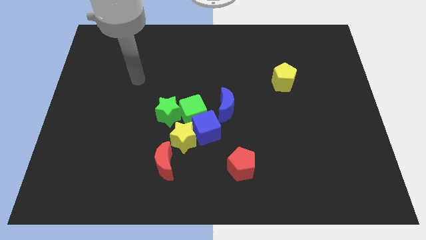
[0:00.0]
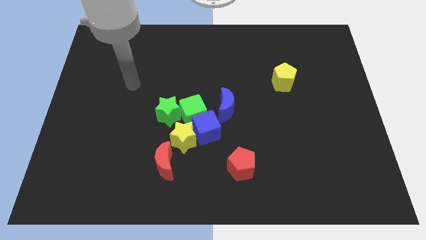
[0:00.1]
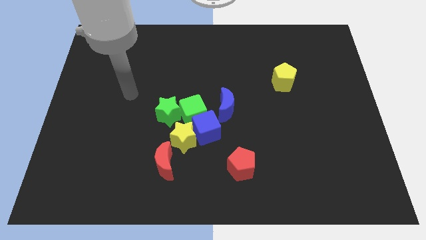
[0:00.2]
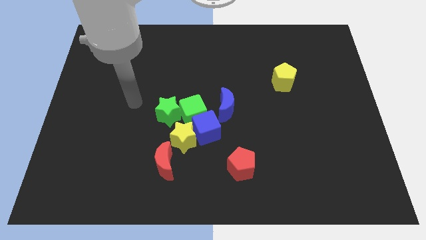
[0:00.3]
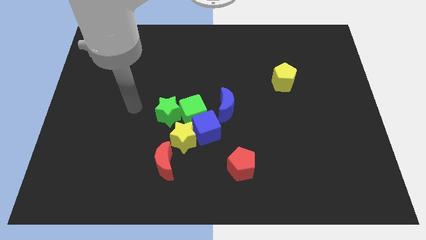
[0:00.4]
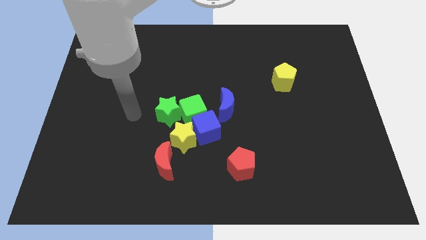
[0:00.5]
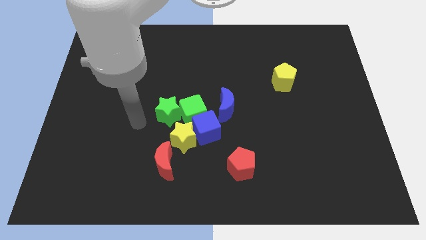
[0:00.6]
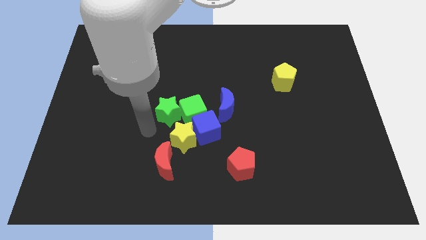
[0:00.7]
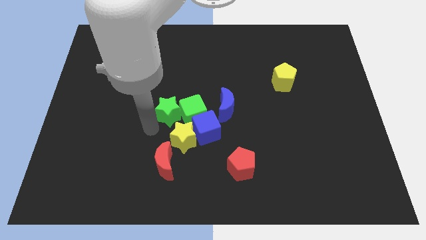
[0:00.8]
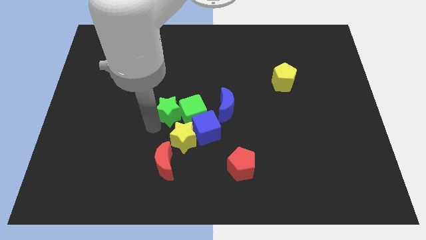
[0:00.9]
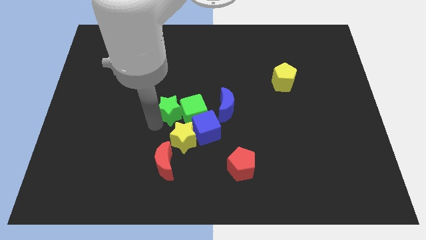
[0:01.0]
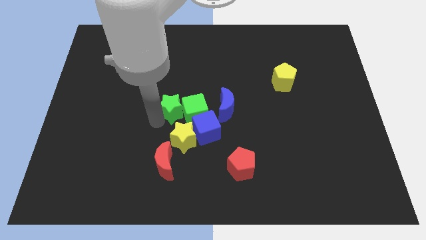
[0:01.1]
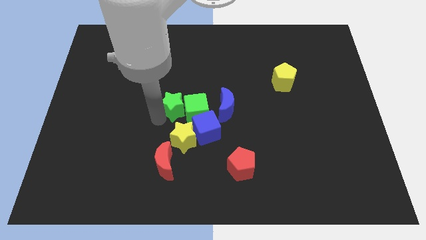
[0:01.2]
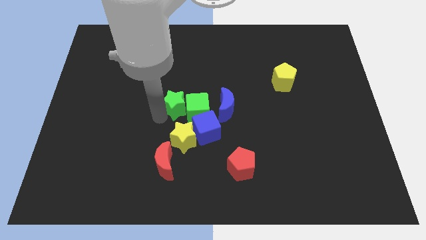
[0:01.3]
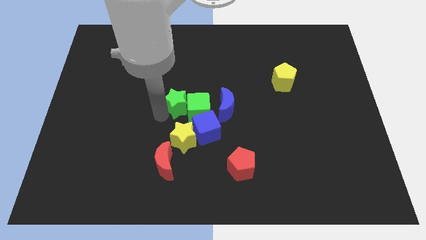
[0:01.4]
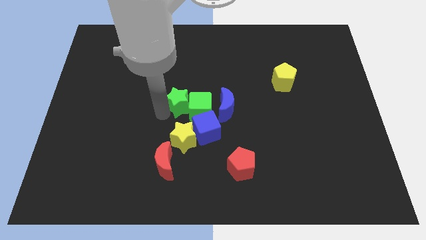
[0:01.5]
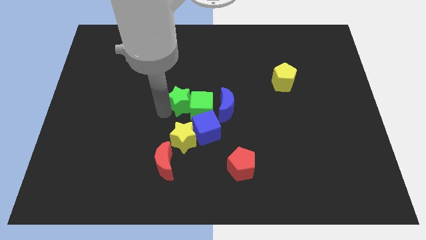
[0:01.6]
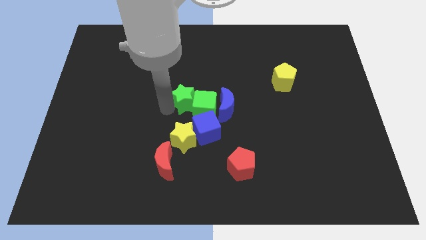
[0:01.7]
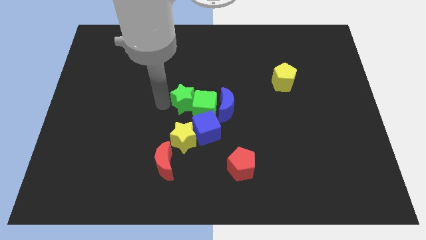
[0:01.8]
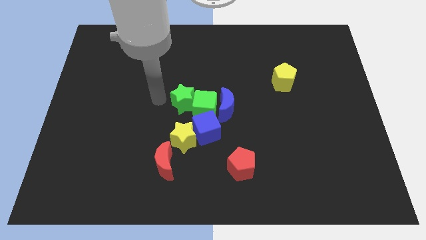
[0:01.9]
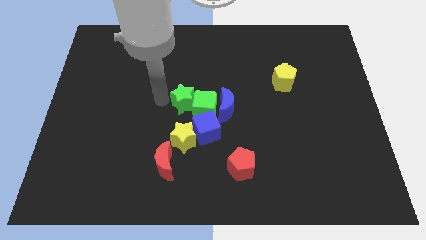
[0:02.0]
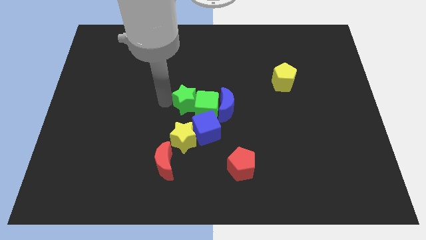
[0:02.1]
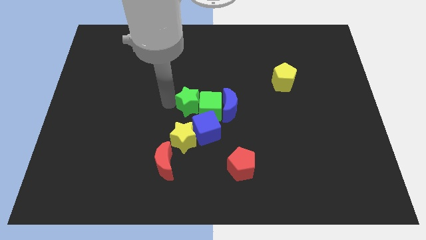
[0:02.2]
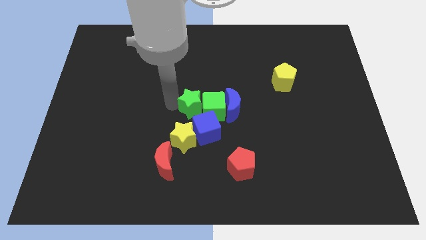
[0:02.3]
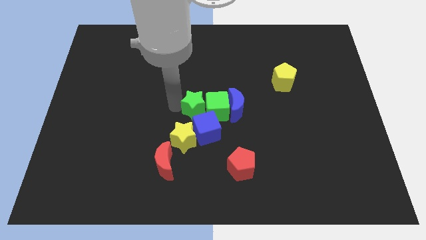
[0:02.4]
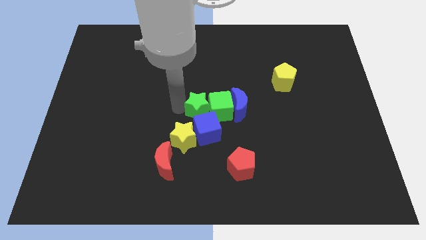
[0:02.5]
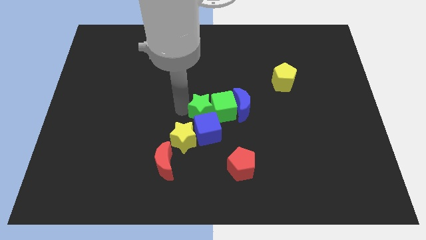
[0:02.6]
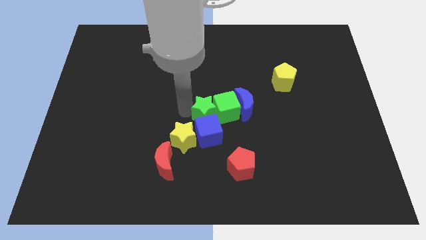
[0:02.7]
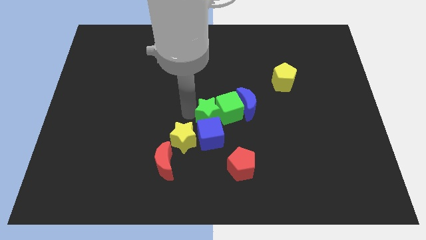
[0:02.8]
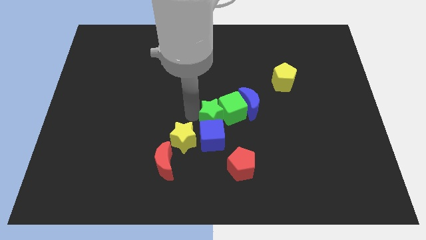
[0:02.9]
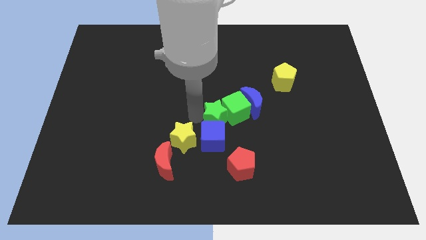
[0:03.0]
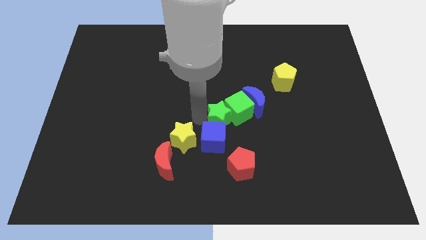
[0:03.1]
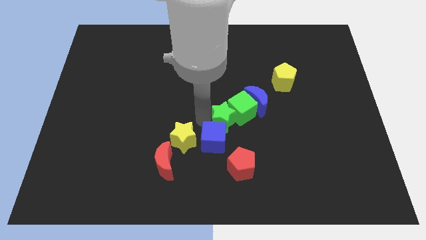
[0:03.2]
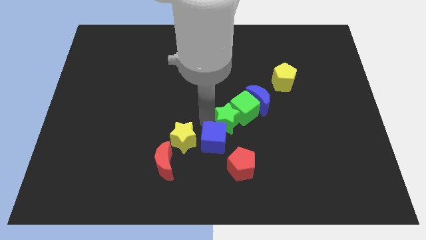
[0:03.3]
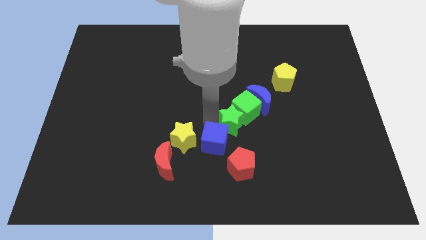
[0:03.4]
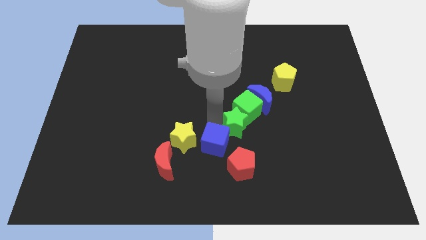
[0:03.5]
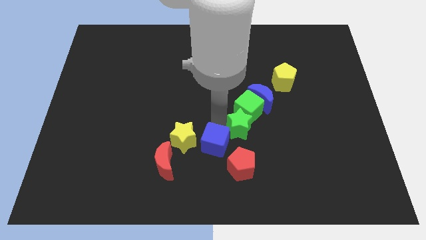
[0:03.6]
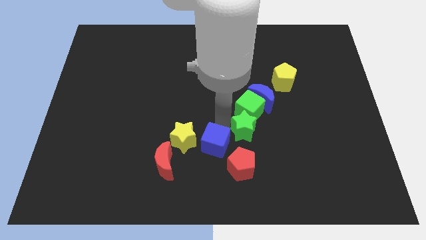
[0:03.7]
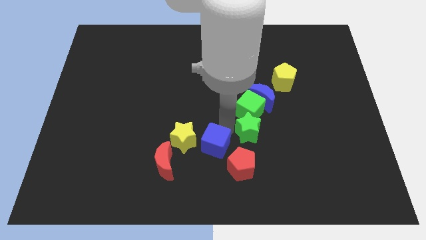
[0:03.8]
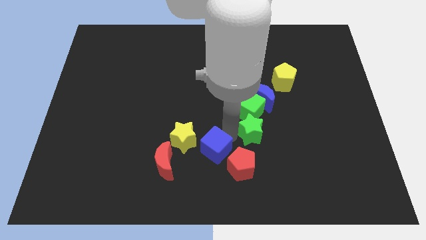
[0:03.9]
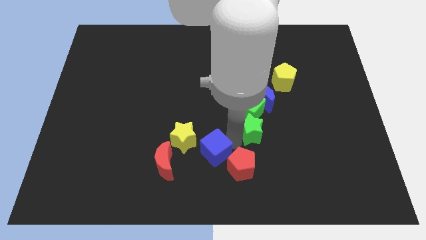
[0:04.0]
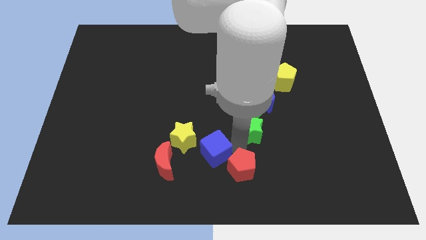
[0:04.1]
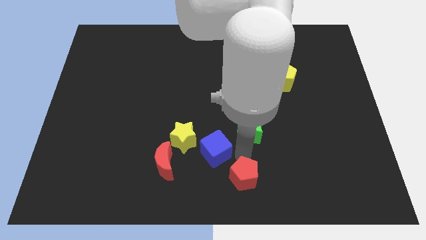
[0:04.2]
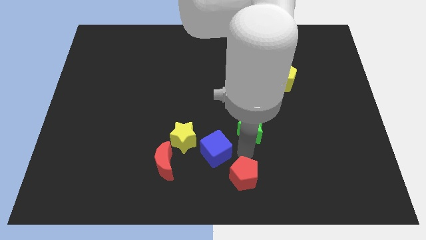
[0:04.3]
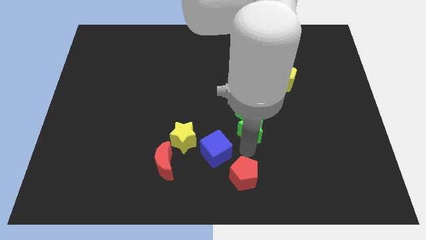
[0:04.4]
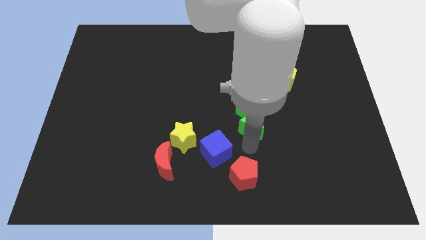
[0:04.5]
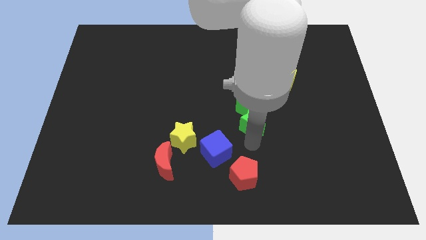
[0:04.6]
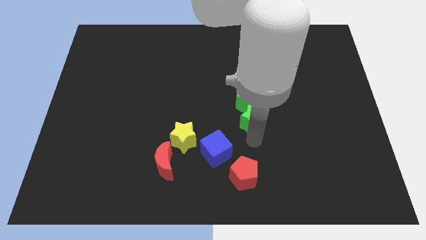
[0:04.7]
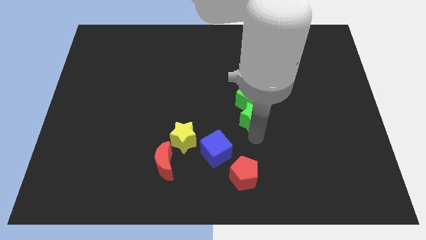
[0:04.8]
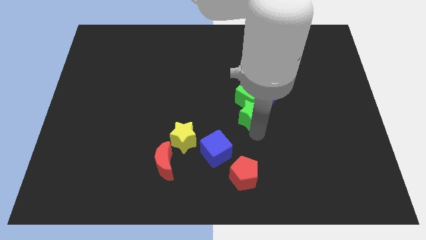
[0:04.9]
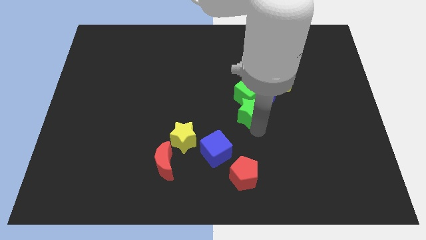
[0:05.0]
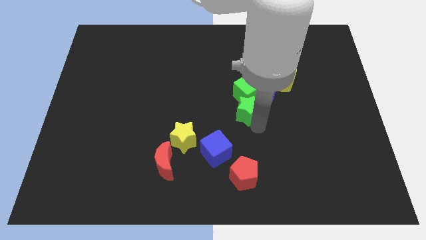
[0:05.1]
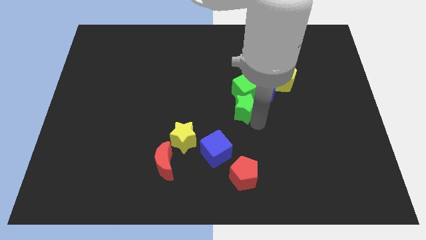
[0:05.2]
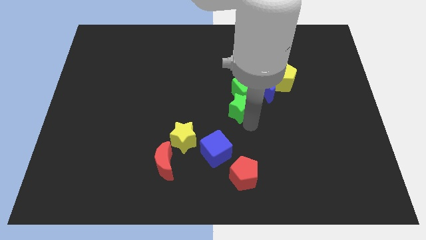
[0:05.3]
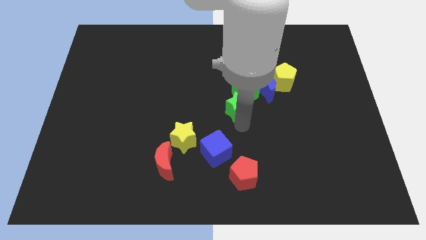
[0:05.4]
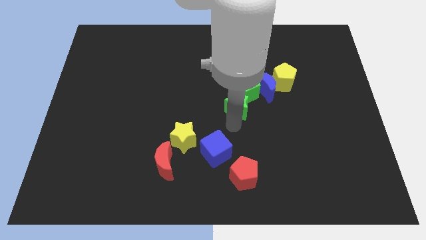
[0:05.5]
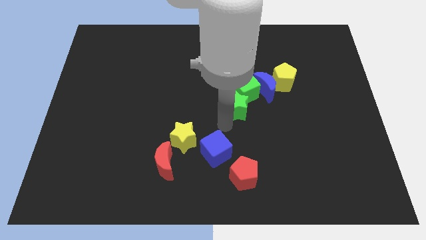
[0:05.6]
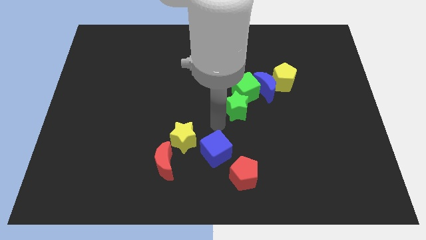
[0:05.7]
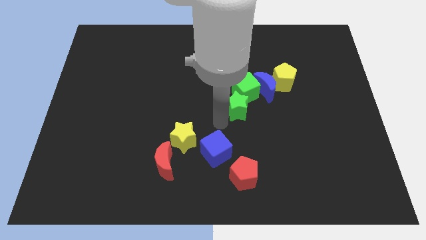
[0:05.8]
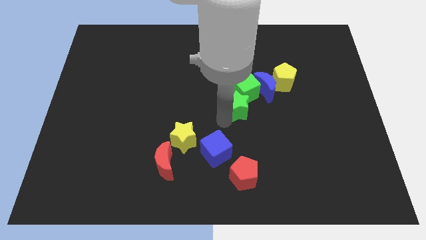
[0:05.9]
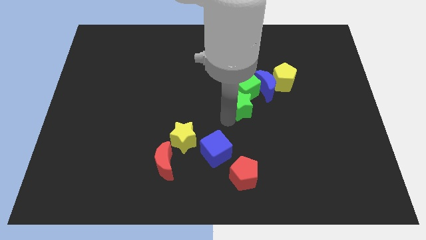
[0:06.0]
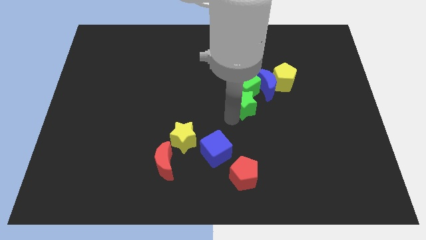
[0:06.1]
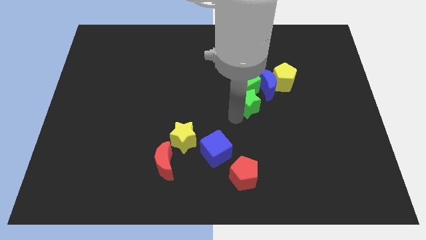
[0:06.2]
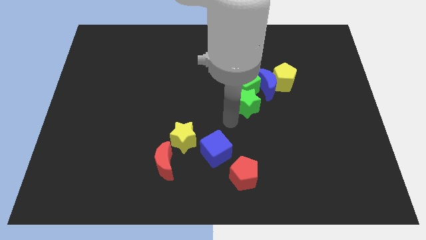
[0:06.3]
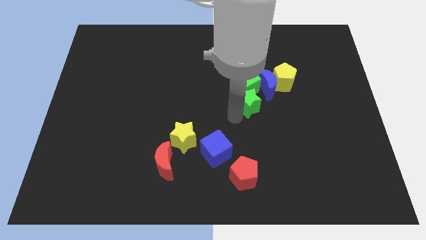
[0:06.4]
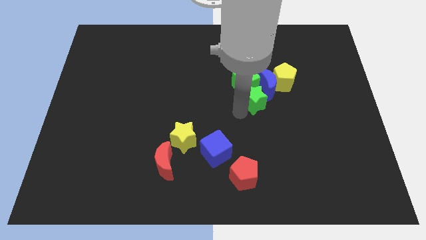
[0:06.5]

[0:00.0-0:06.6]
push the green star to the blue moon

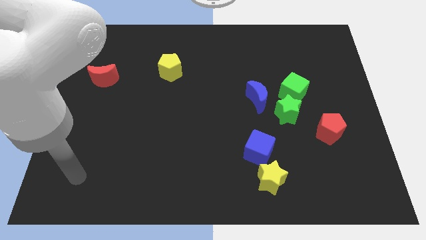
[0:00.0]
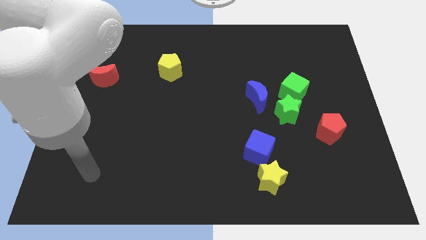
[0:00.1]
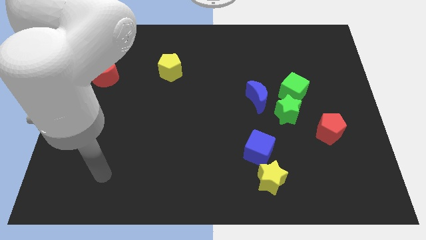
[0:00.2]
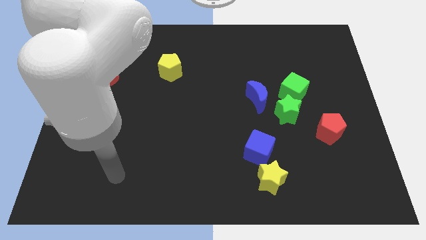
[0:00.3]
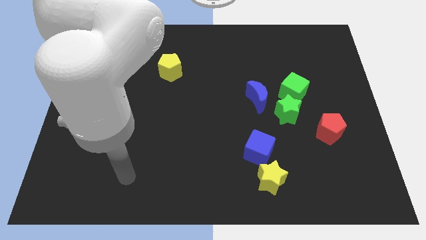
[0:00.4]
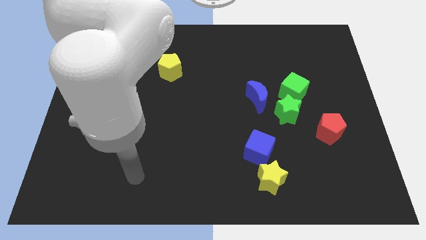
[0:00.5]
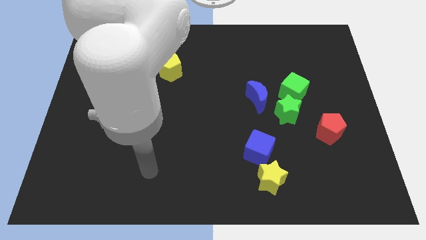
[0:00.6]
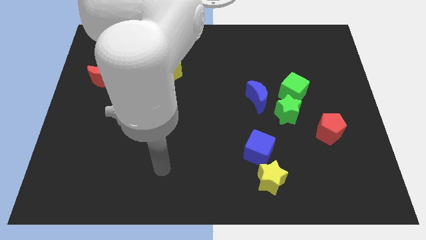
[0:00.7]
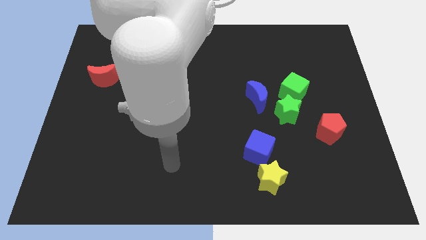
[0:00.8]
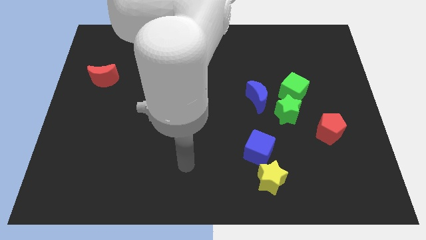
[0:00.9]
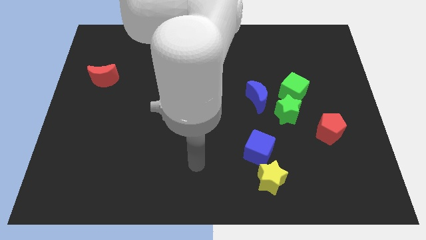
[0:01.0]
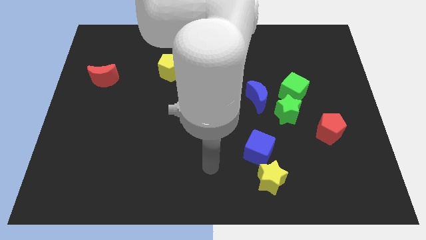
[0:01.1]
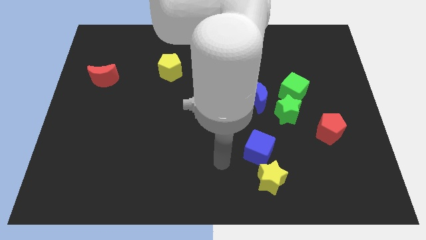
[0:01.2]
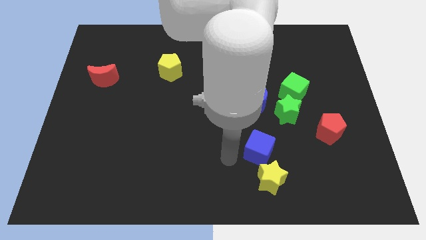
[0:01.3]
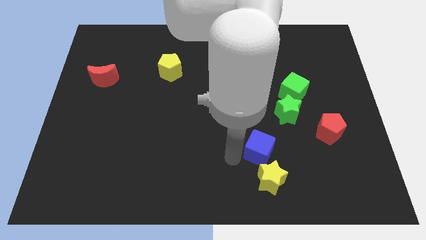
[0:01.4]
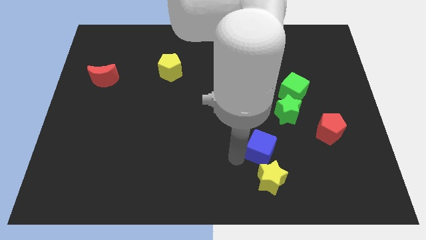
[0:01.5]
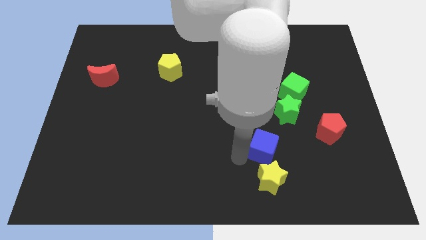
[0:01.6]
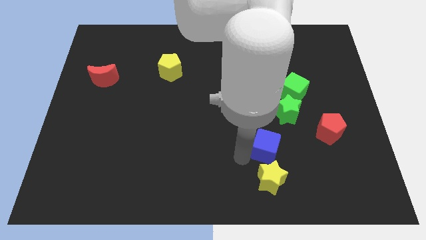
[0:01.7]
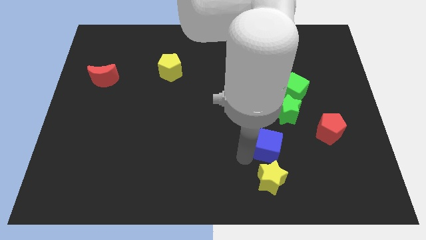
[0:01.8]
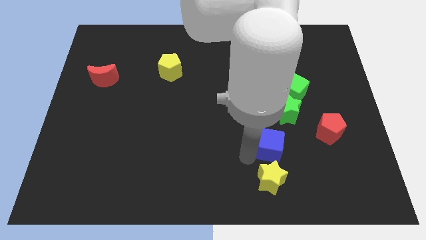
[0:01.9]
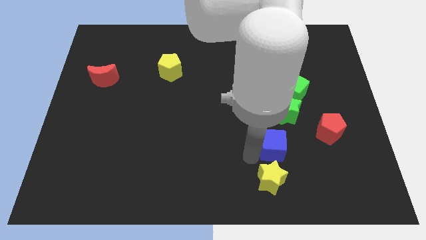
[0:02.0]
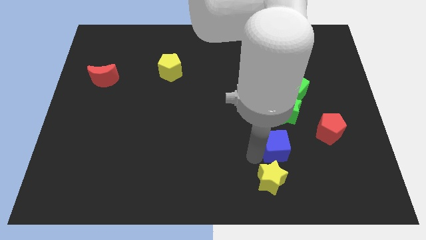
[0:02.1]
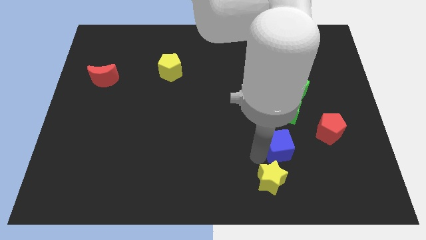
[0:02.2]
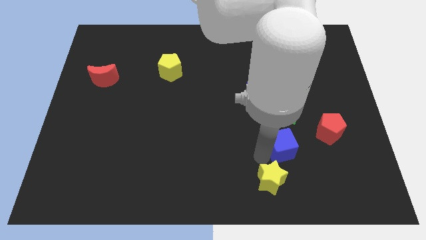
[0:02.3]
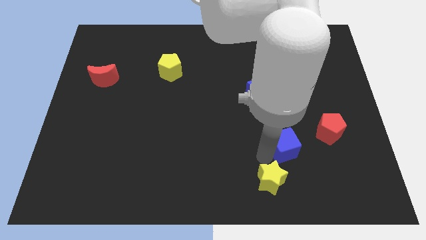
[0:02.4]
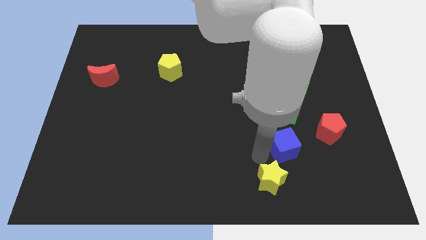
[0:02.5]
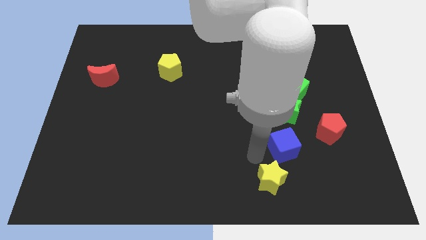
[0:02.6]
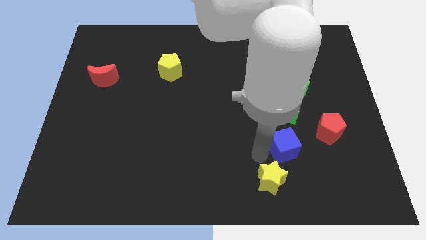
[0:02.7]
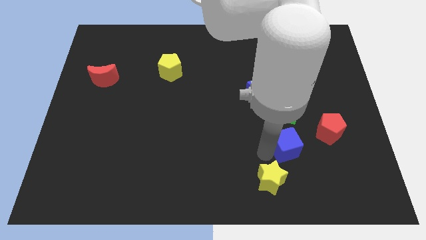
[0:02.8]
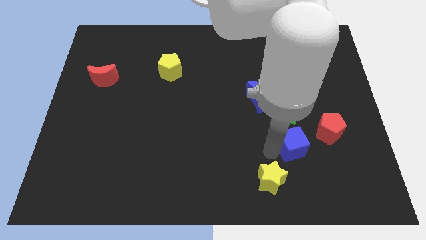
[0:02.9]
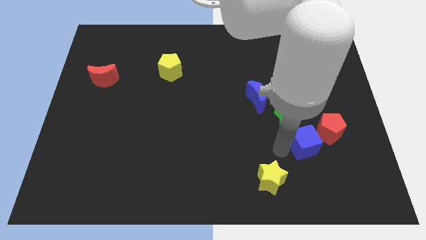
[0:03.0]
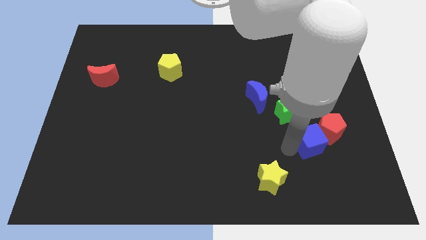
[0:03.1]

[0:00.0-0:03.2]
slide the blue cube towards the red pentagon
